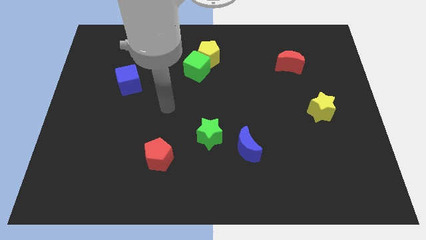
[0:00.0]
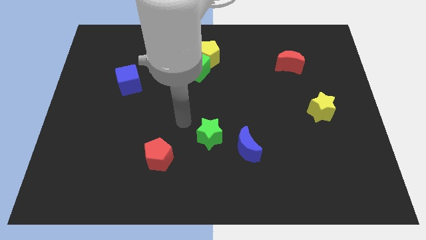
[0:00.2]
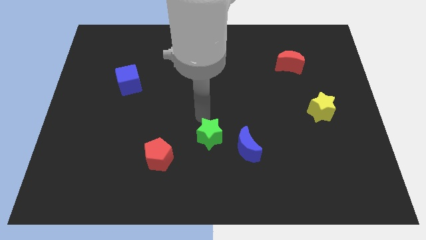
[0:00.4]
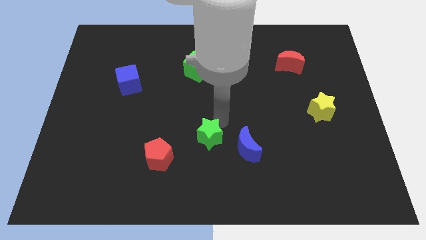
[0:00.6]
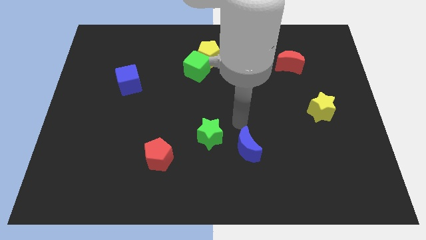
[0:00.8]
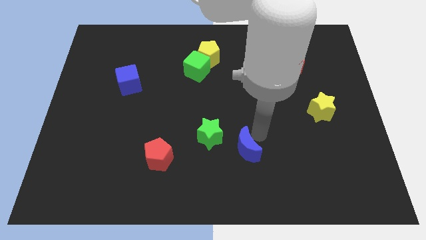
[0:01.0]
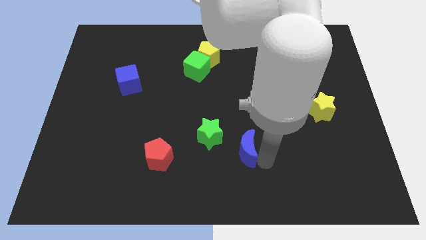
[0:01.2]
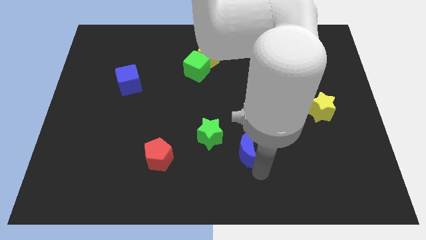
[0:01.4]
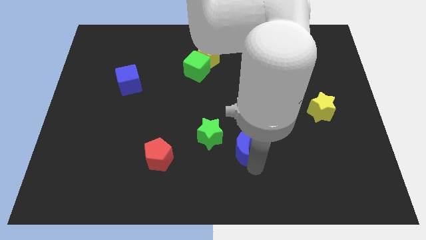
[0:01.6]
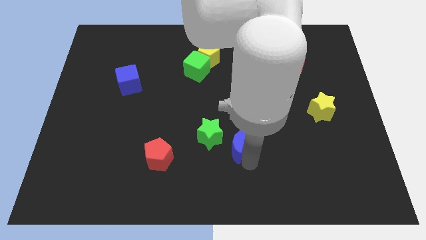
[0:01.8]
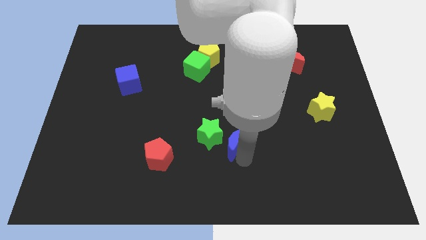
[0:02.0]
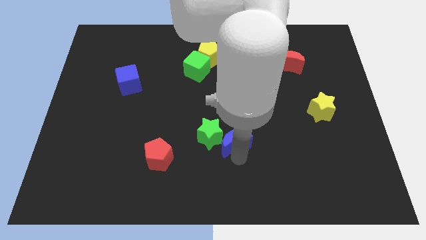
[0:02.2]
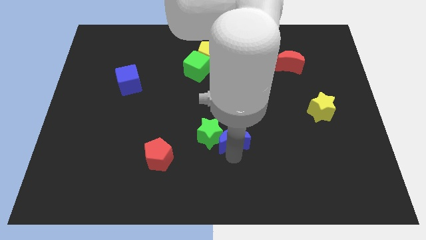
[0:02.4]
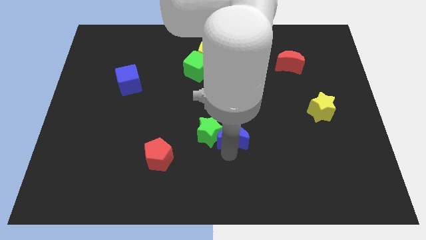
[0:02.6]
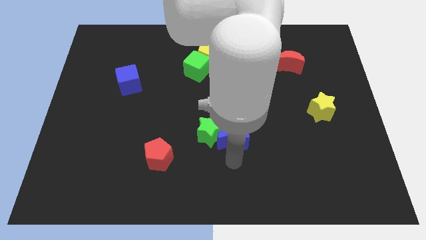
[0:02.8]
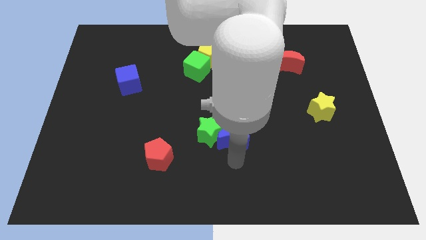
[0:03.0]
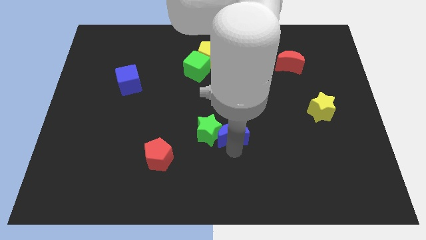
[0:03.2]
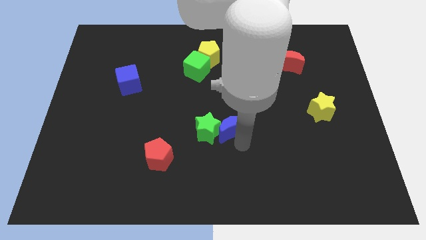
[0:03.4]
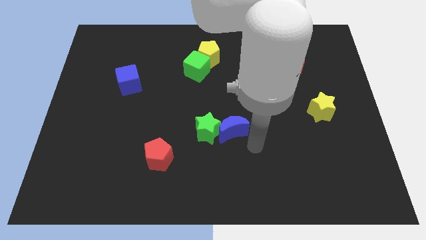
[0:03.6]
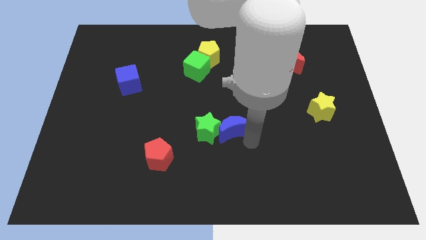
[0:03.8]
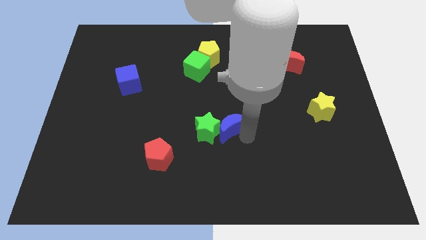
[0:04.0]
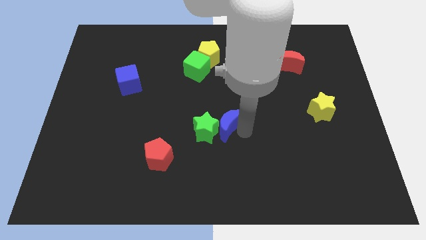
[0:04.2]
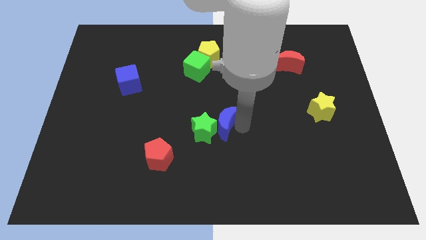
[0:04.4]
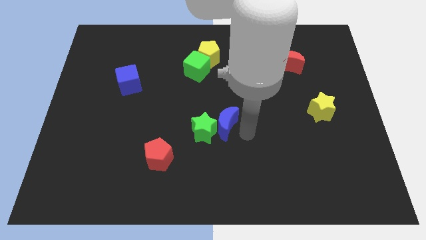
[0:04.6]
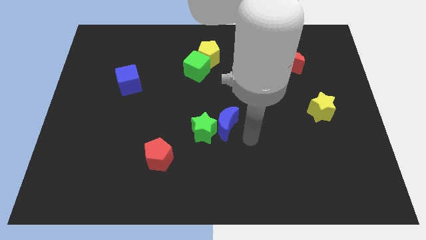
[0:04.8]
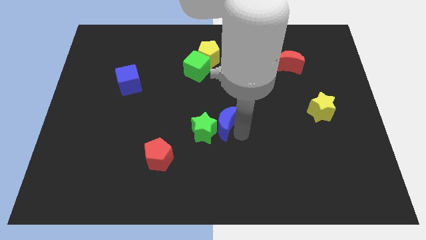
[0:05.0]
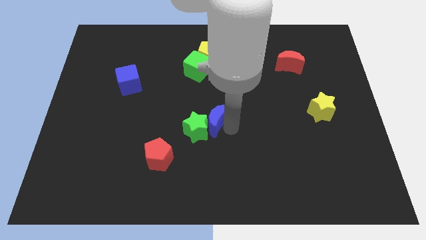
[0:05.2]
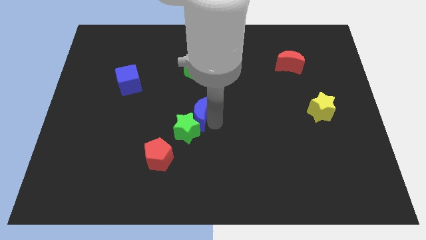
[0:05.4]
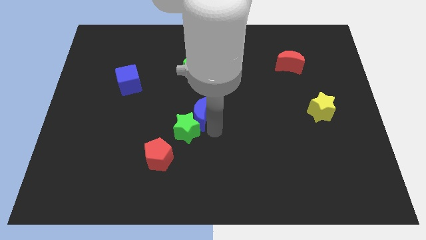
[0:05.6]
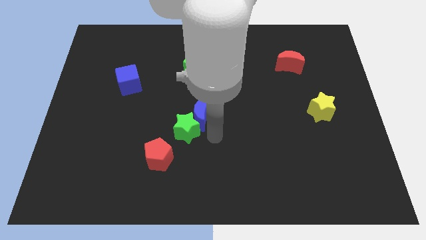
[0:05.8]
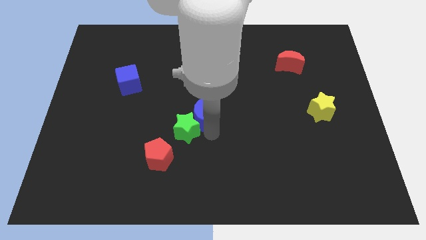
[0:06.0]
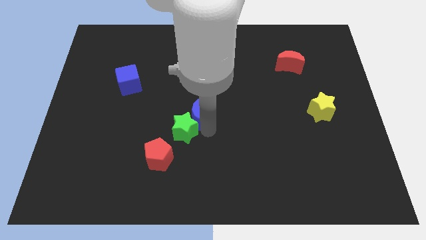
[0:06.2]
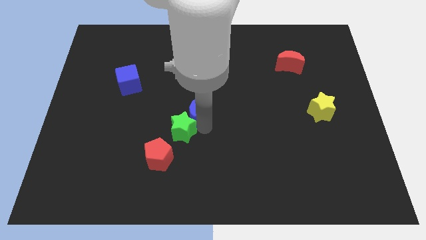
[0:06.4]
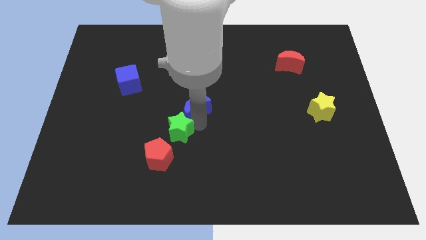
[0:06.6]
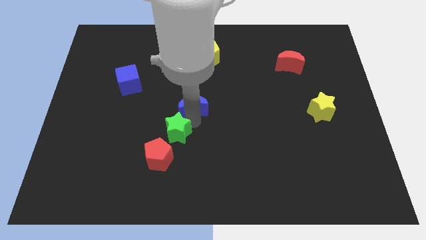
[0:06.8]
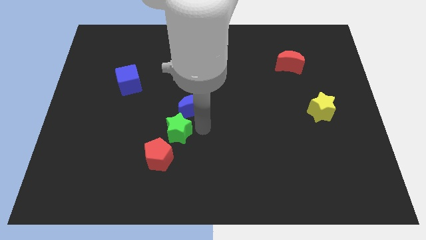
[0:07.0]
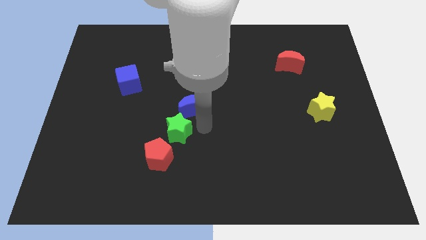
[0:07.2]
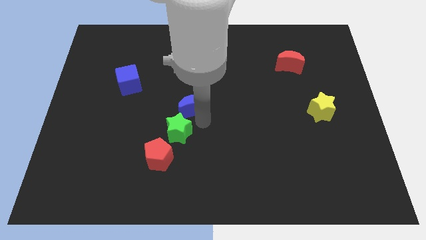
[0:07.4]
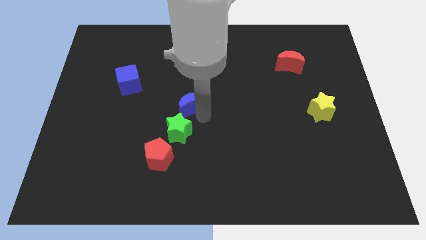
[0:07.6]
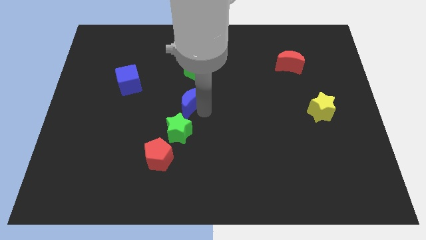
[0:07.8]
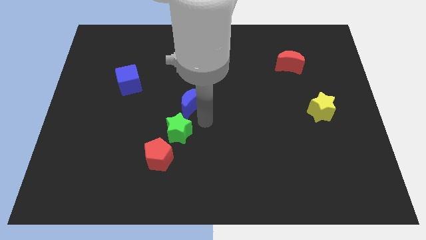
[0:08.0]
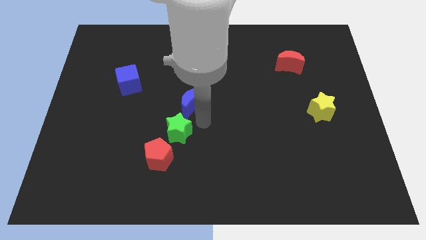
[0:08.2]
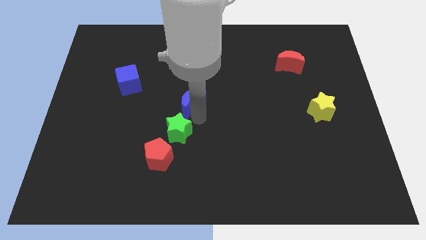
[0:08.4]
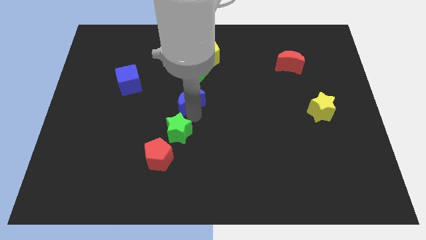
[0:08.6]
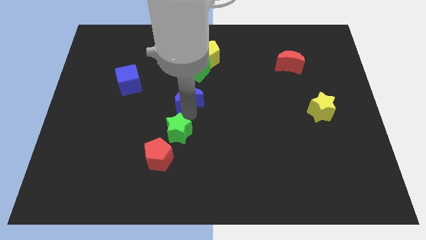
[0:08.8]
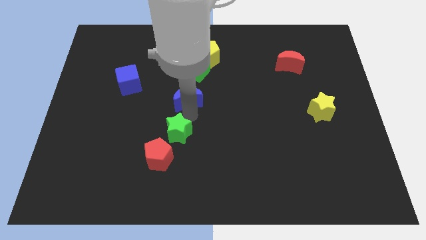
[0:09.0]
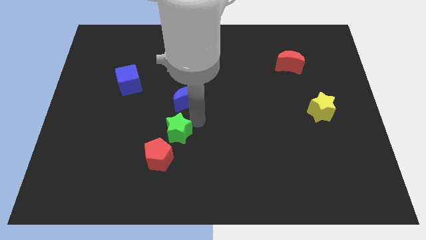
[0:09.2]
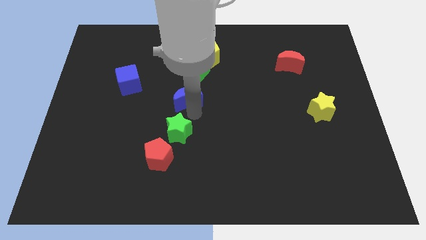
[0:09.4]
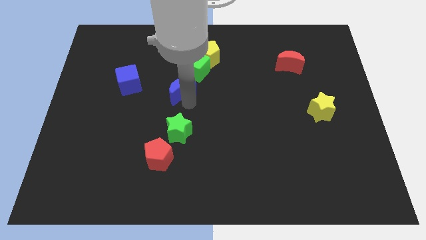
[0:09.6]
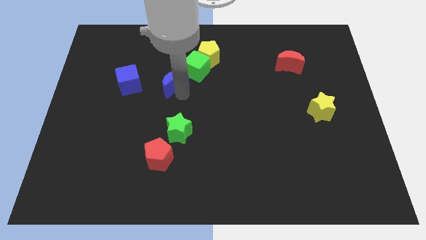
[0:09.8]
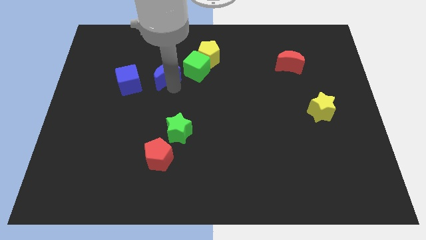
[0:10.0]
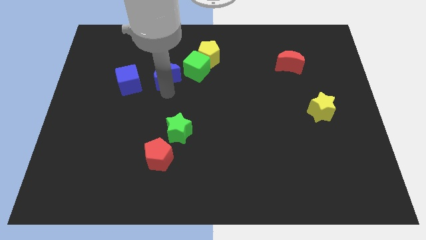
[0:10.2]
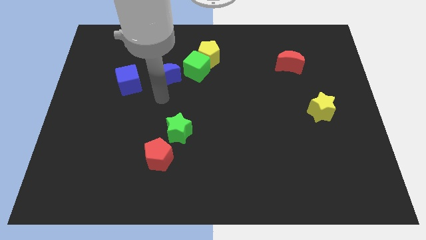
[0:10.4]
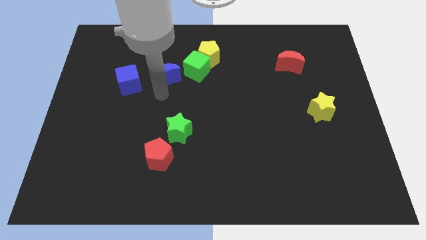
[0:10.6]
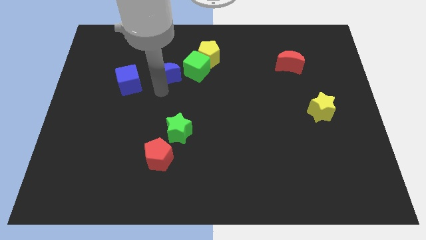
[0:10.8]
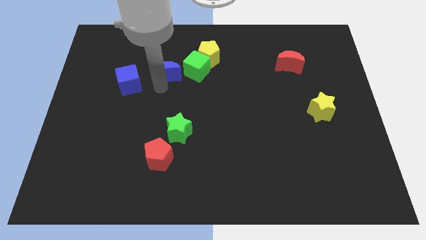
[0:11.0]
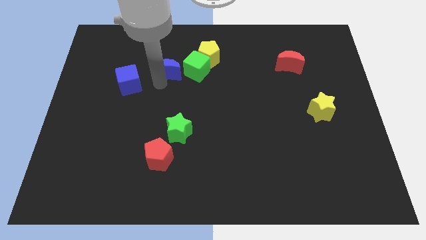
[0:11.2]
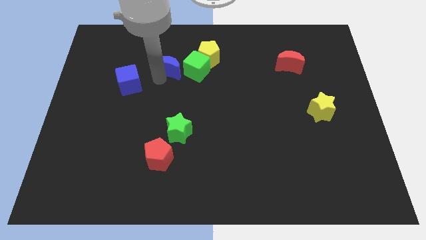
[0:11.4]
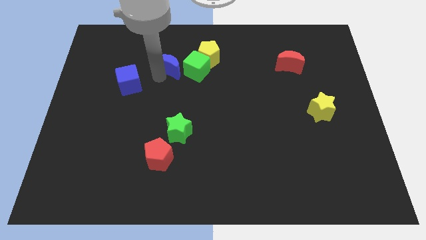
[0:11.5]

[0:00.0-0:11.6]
slide the blue moon to the top left side of the green cube

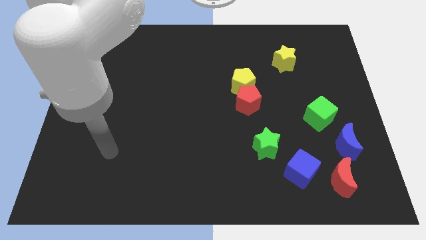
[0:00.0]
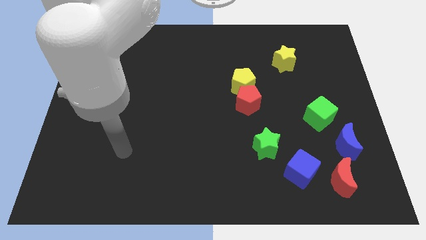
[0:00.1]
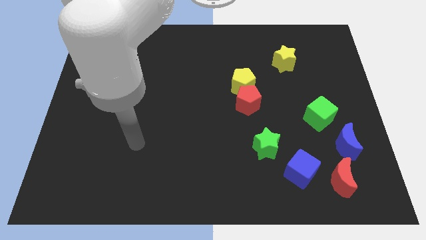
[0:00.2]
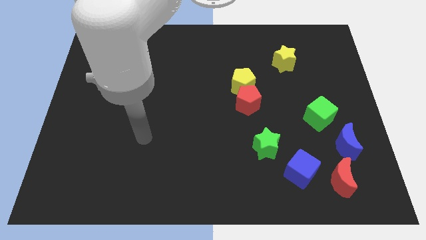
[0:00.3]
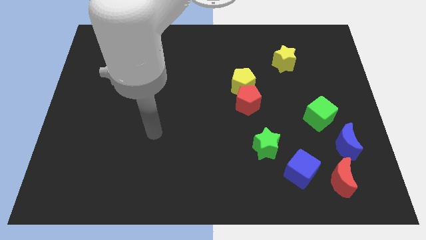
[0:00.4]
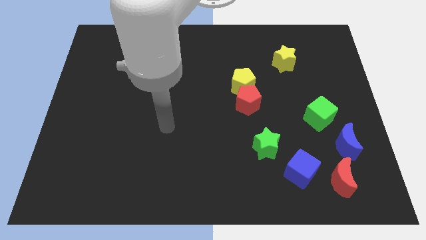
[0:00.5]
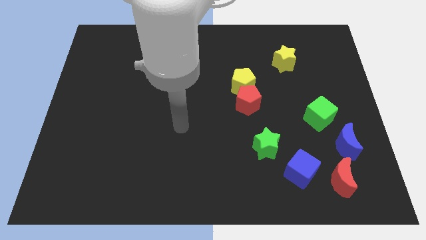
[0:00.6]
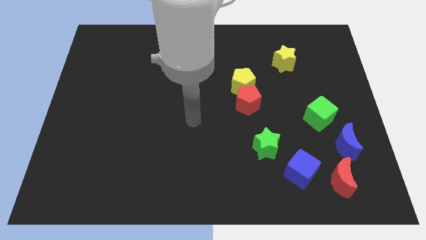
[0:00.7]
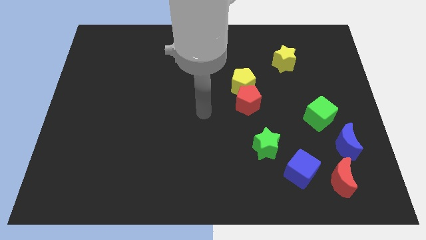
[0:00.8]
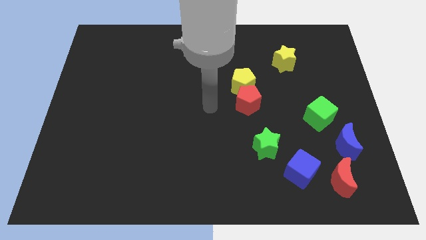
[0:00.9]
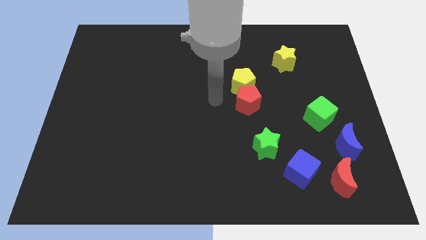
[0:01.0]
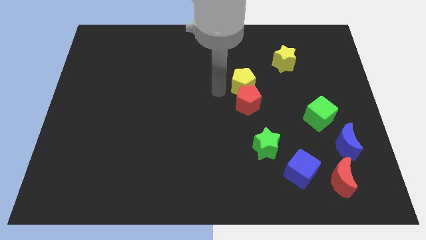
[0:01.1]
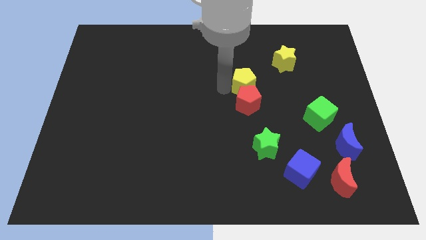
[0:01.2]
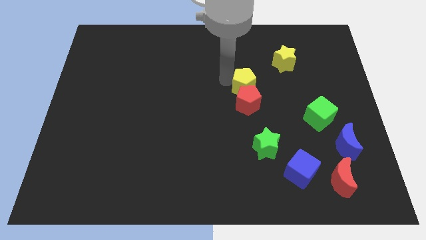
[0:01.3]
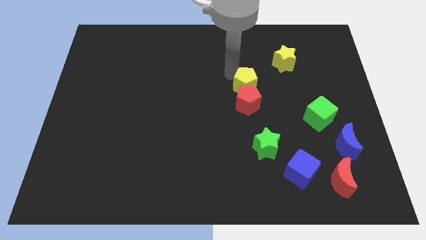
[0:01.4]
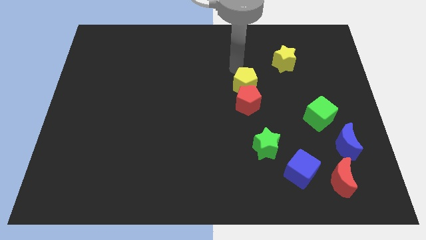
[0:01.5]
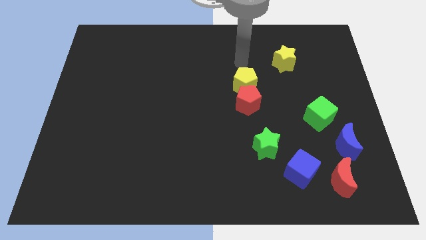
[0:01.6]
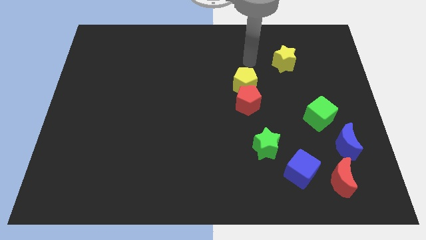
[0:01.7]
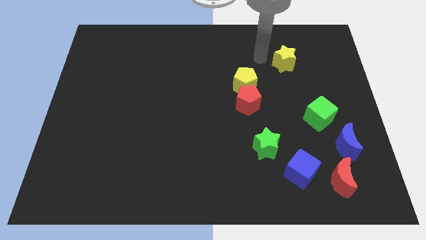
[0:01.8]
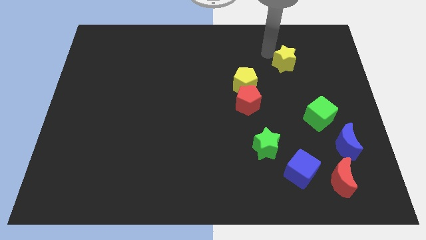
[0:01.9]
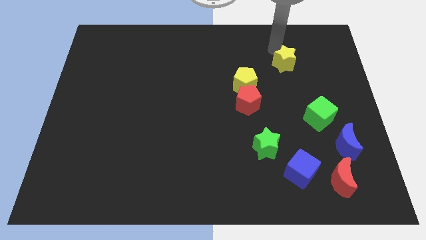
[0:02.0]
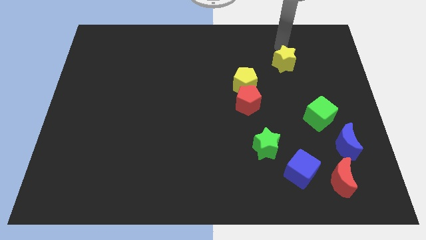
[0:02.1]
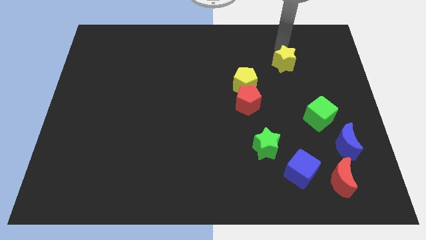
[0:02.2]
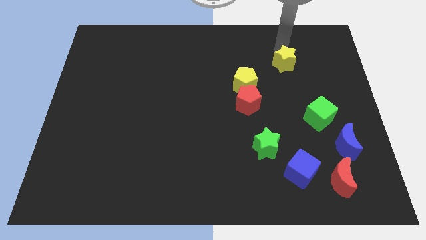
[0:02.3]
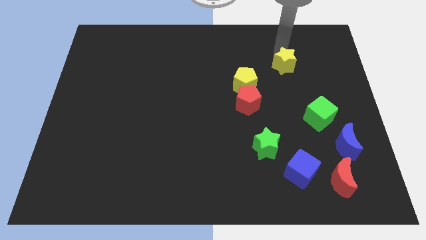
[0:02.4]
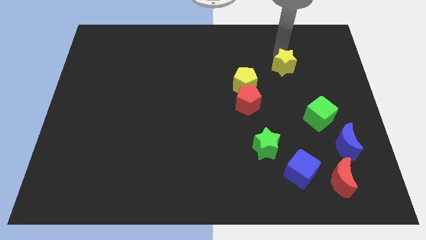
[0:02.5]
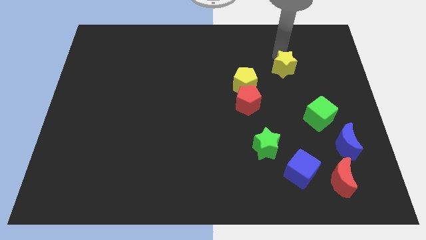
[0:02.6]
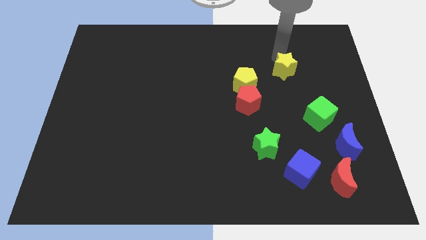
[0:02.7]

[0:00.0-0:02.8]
slide the yellow star to the right of the yellow pentagon
